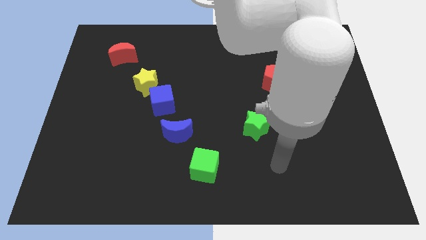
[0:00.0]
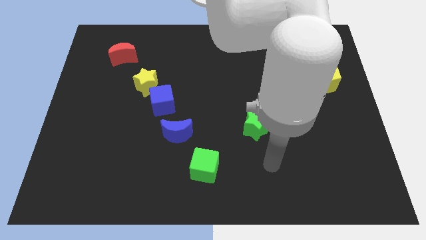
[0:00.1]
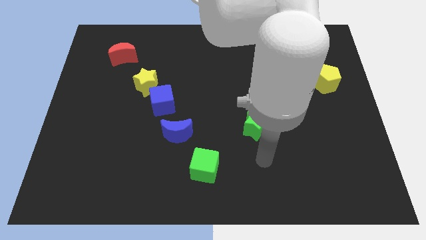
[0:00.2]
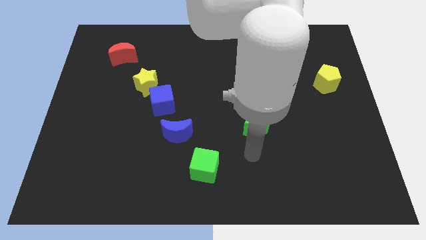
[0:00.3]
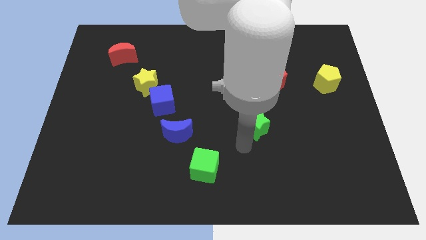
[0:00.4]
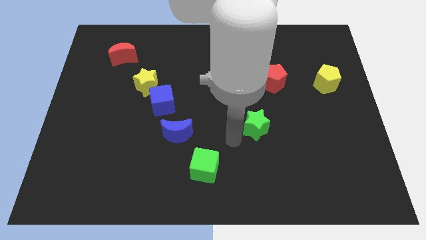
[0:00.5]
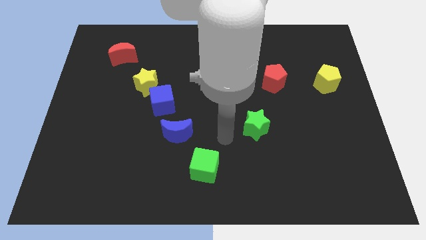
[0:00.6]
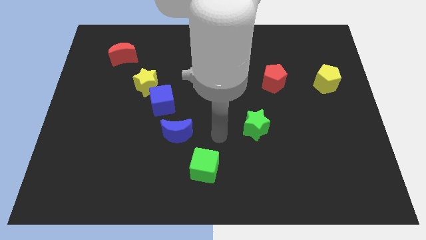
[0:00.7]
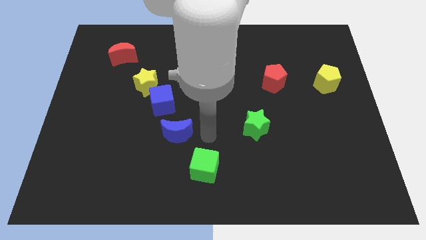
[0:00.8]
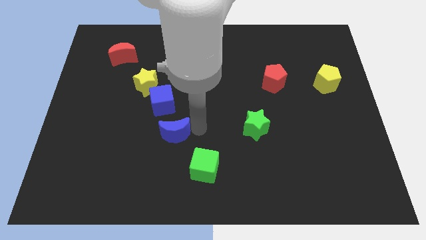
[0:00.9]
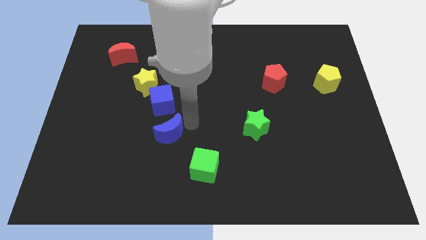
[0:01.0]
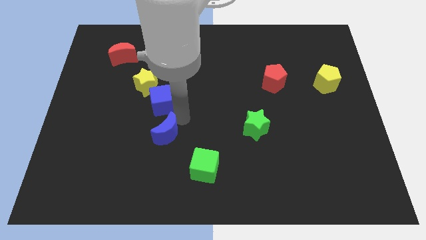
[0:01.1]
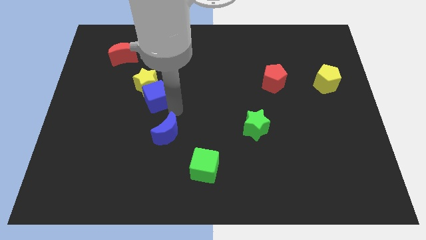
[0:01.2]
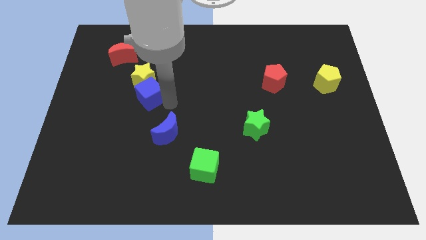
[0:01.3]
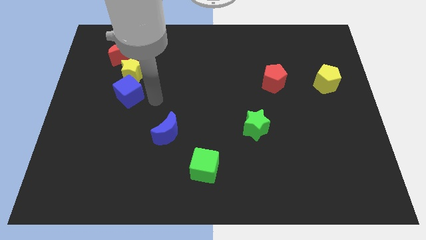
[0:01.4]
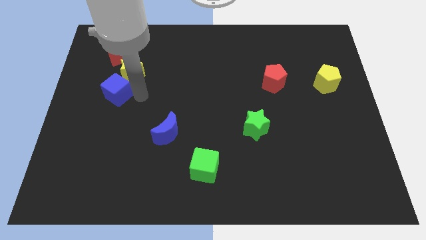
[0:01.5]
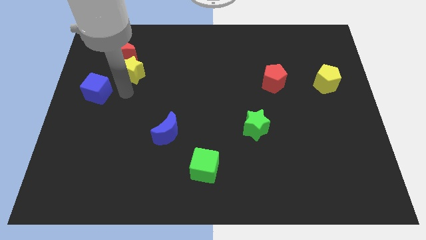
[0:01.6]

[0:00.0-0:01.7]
move the yellow star away from the blue cube

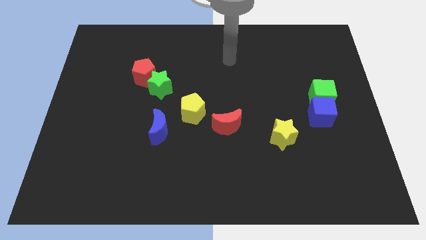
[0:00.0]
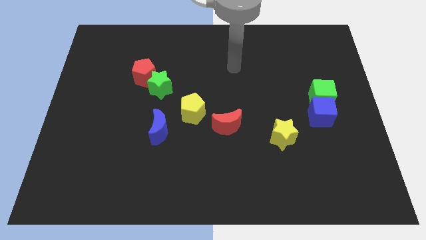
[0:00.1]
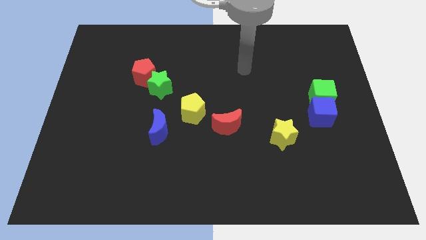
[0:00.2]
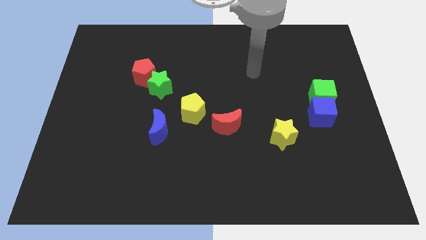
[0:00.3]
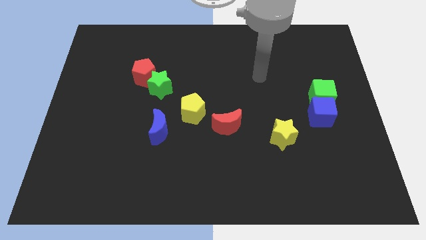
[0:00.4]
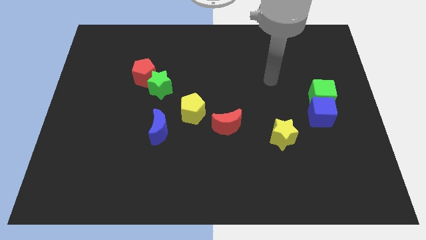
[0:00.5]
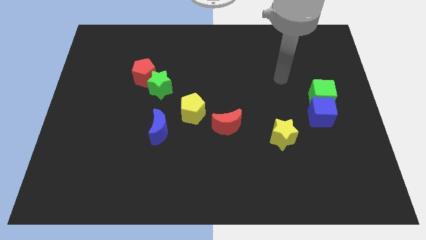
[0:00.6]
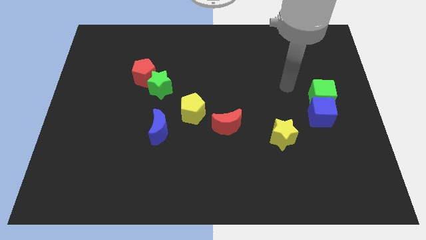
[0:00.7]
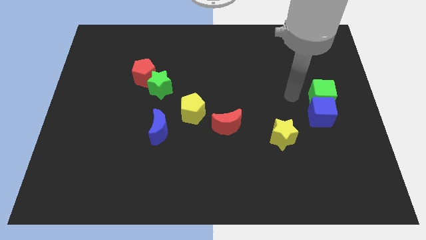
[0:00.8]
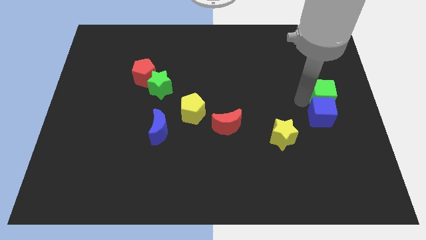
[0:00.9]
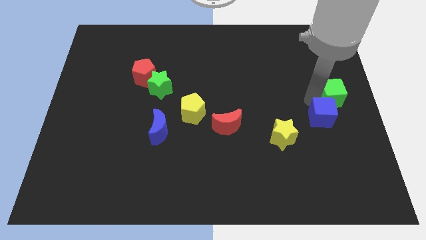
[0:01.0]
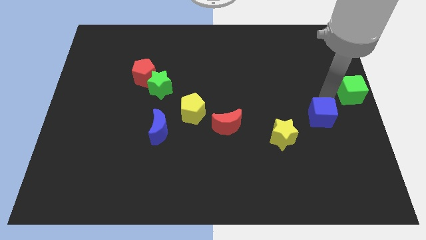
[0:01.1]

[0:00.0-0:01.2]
separate the blue cube from the green cube

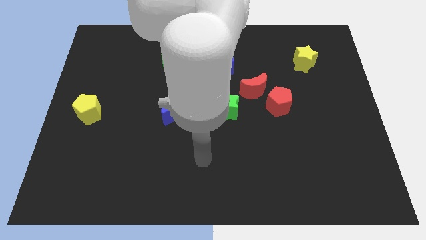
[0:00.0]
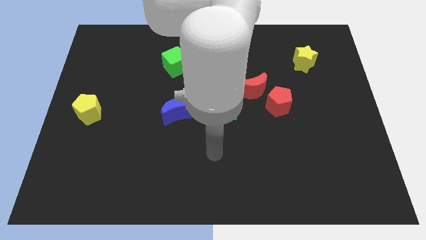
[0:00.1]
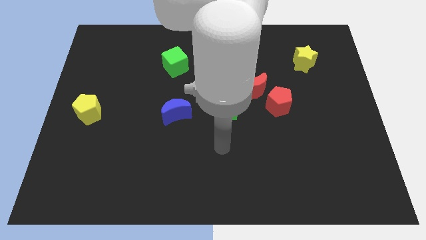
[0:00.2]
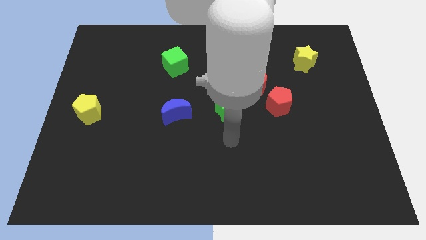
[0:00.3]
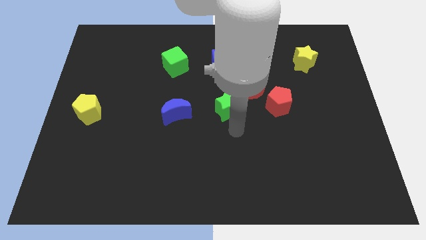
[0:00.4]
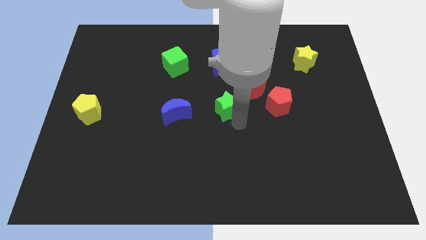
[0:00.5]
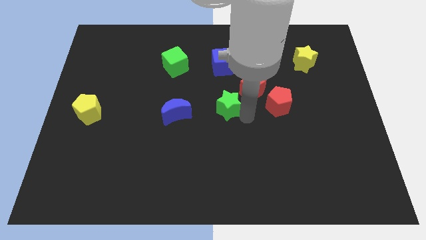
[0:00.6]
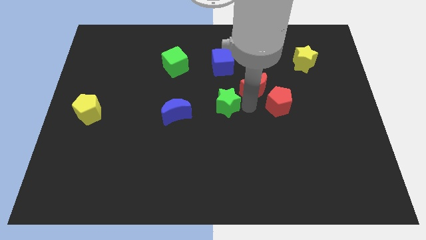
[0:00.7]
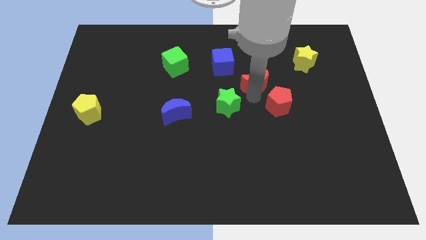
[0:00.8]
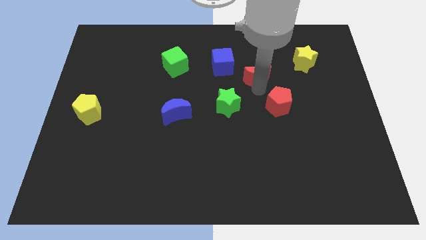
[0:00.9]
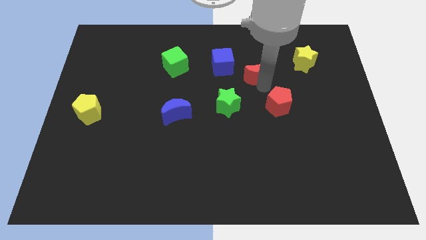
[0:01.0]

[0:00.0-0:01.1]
pull the red pentagon apart from the red moon

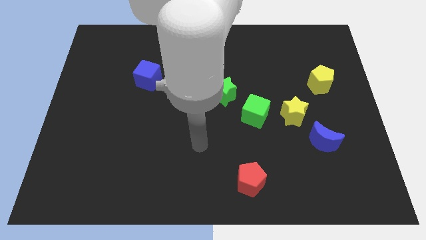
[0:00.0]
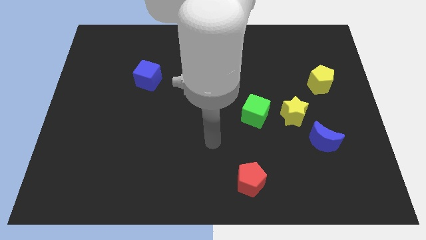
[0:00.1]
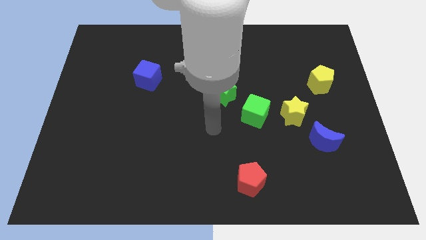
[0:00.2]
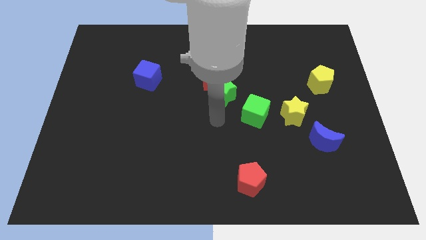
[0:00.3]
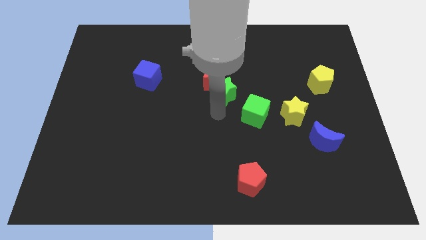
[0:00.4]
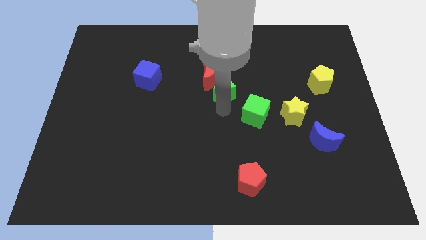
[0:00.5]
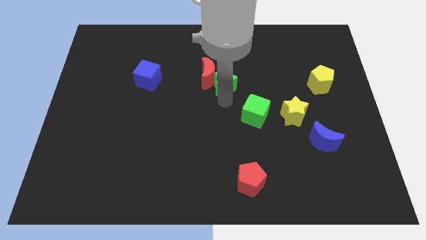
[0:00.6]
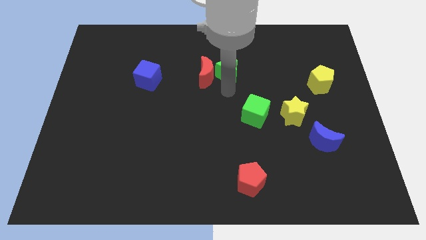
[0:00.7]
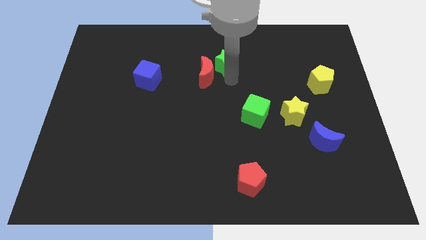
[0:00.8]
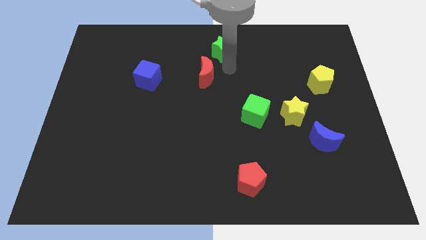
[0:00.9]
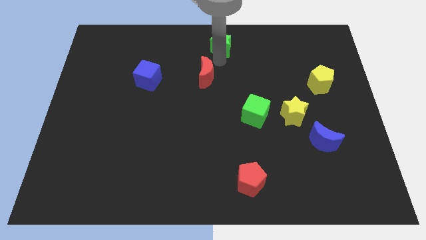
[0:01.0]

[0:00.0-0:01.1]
separate the red moon from the green star

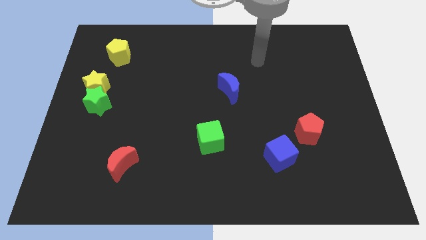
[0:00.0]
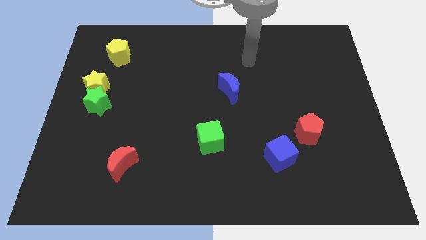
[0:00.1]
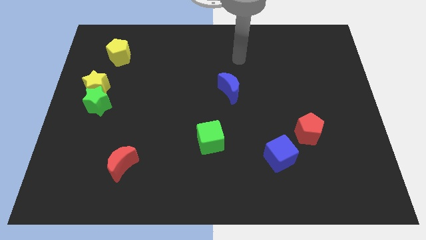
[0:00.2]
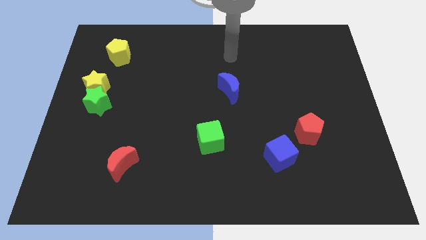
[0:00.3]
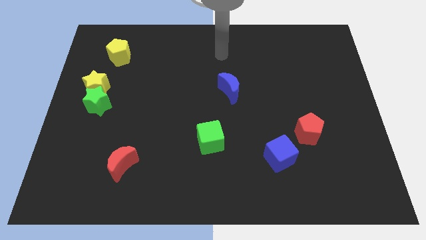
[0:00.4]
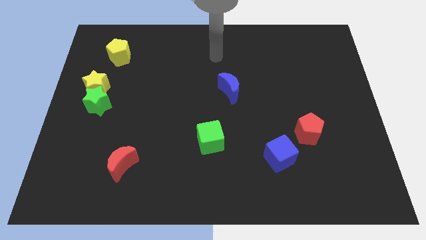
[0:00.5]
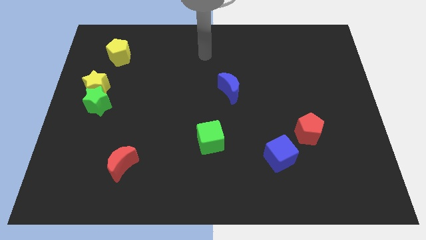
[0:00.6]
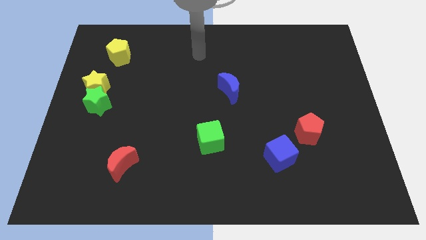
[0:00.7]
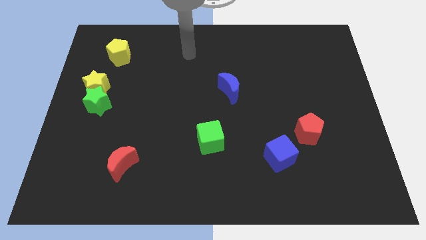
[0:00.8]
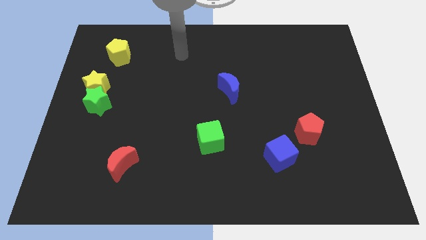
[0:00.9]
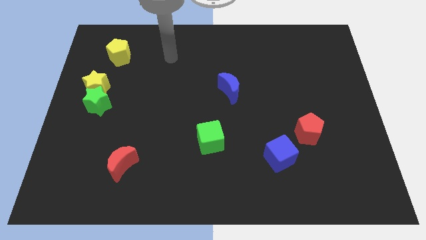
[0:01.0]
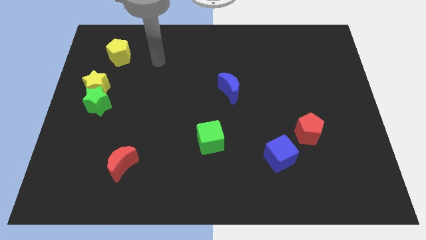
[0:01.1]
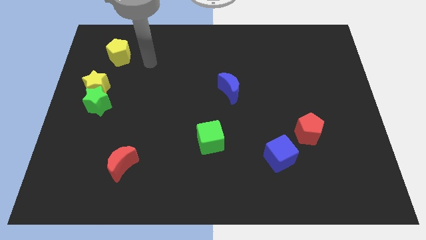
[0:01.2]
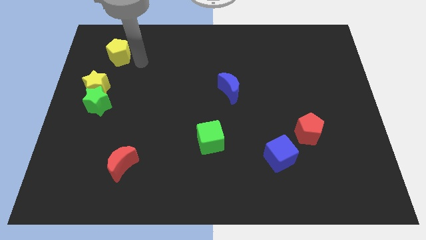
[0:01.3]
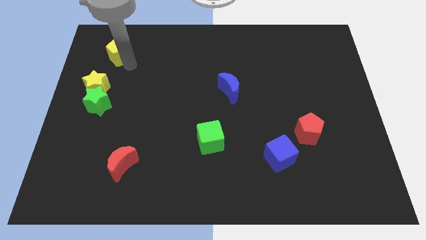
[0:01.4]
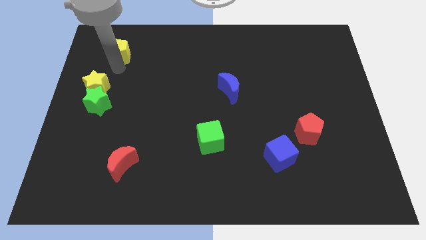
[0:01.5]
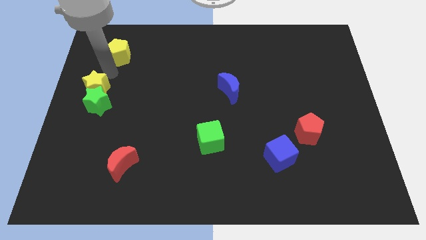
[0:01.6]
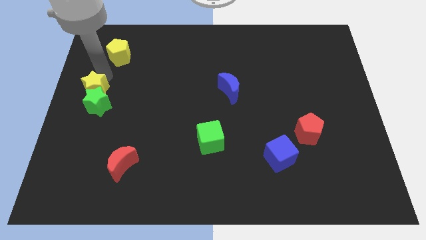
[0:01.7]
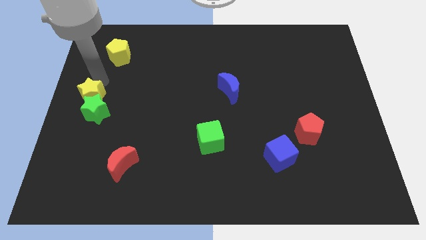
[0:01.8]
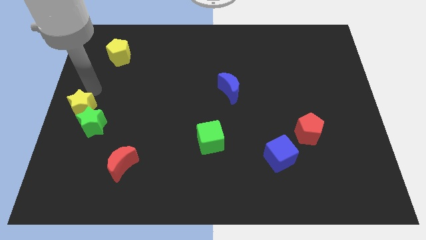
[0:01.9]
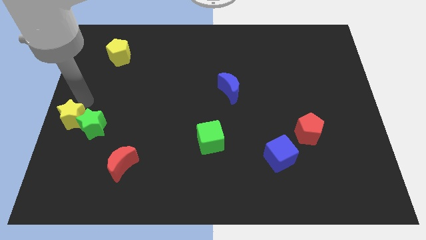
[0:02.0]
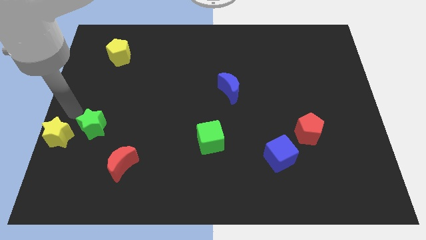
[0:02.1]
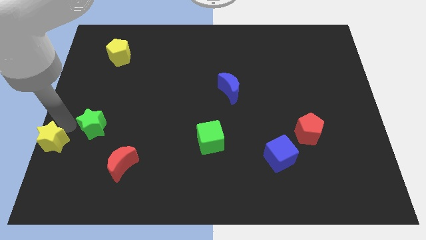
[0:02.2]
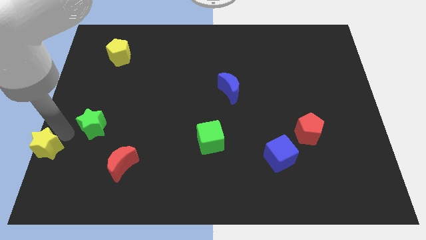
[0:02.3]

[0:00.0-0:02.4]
pull the green star apart from the yellow star

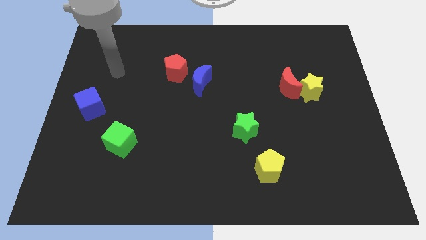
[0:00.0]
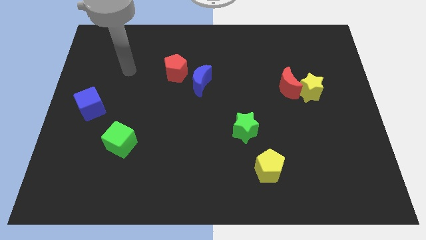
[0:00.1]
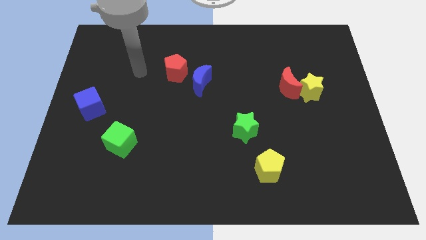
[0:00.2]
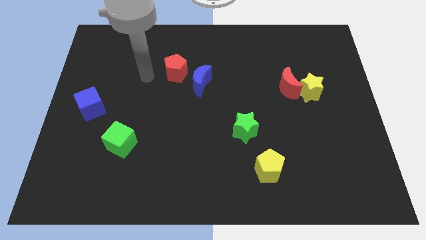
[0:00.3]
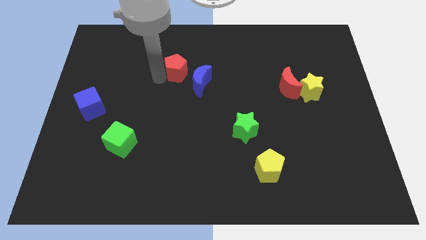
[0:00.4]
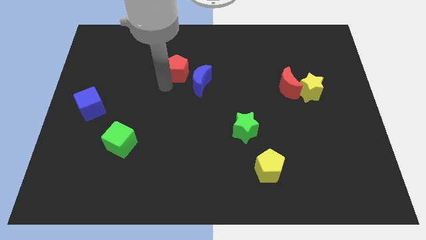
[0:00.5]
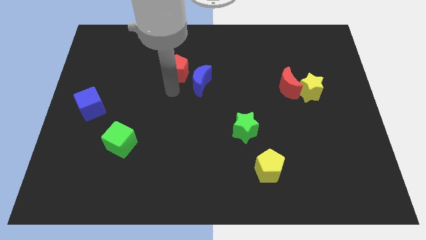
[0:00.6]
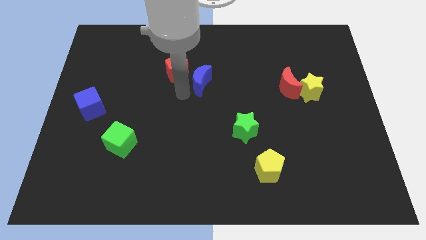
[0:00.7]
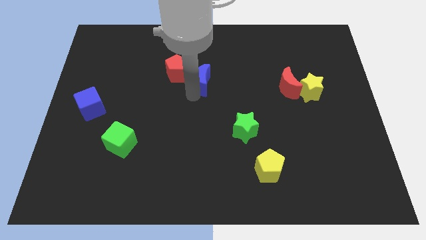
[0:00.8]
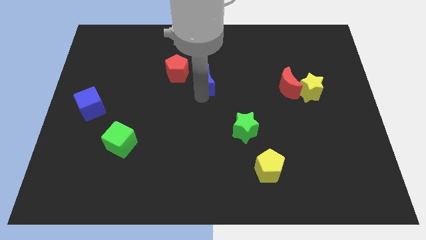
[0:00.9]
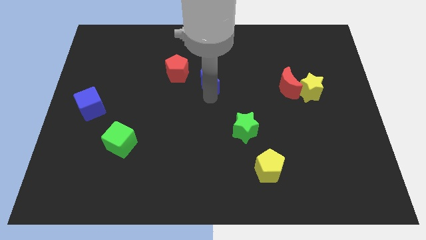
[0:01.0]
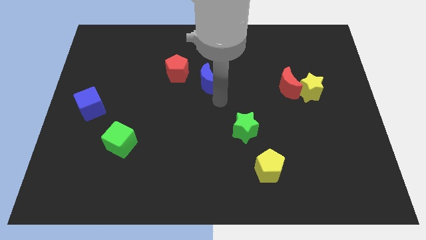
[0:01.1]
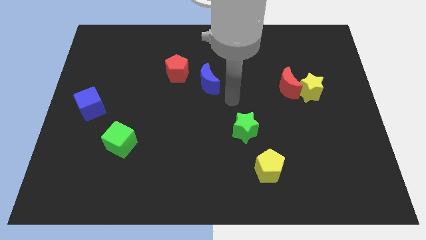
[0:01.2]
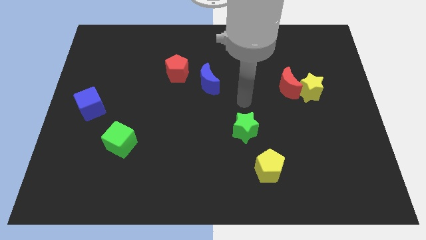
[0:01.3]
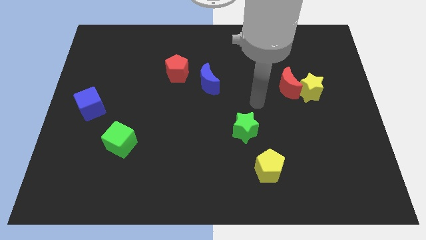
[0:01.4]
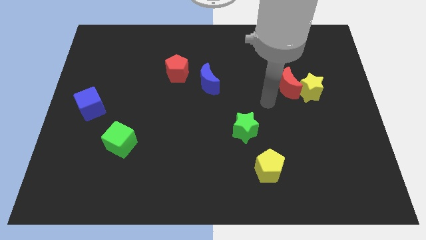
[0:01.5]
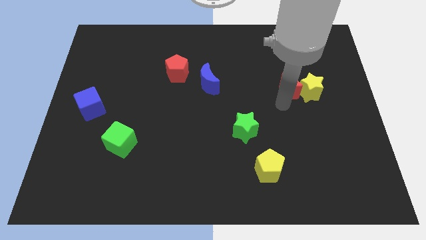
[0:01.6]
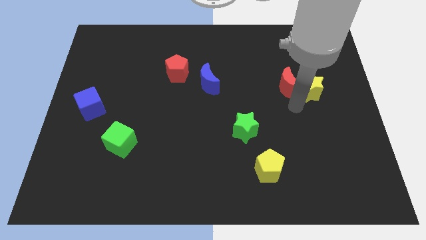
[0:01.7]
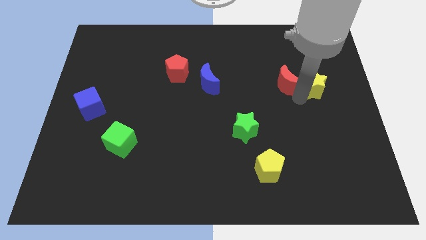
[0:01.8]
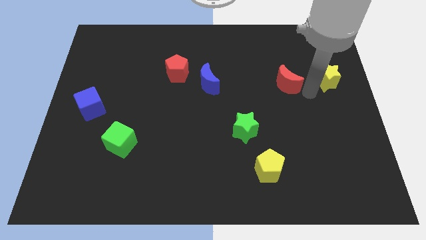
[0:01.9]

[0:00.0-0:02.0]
pull the red moon apart from the yellow star
